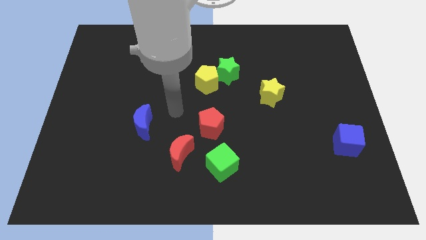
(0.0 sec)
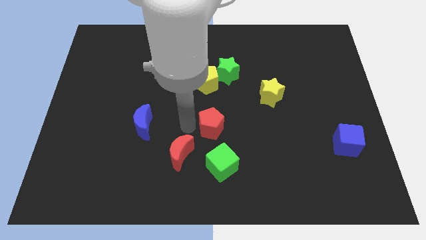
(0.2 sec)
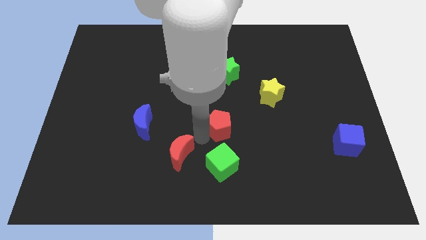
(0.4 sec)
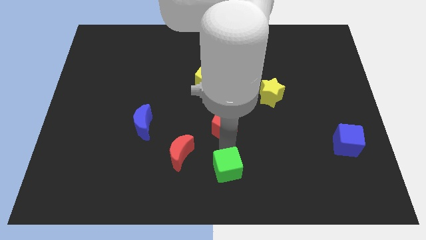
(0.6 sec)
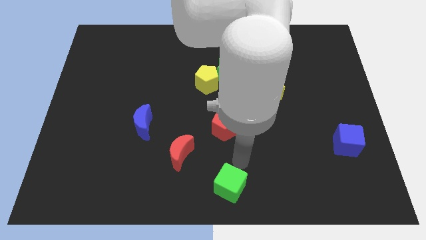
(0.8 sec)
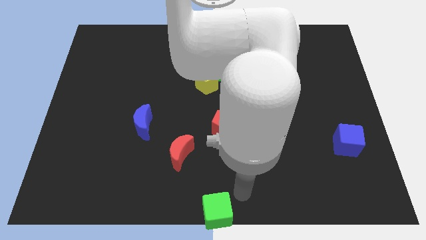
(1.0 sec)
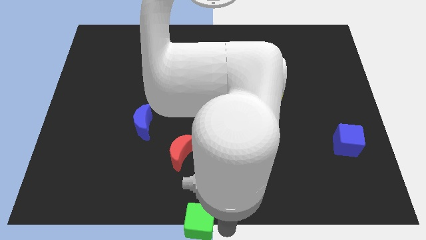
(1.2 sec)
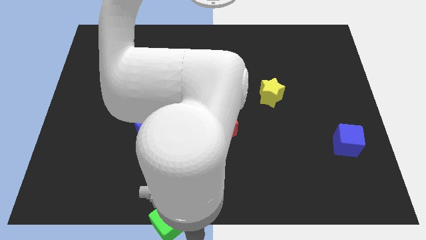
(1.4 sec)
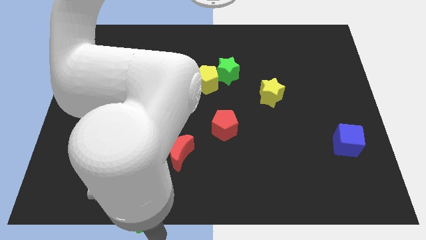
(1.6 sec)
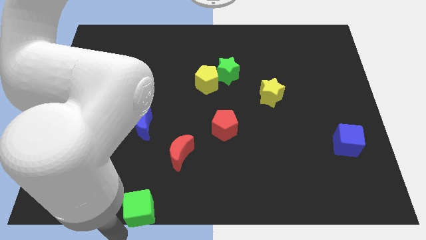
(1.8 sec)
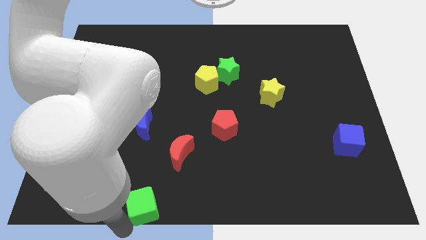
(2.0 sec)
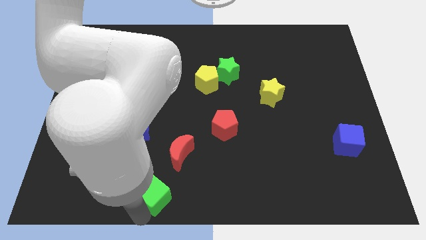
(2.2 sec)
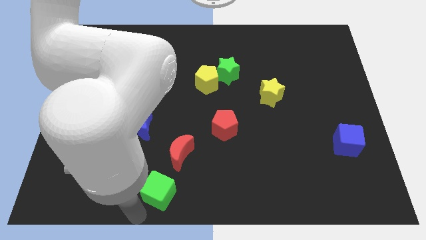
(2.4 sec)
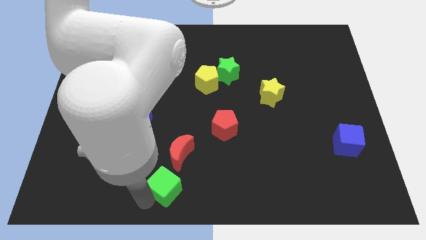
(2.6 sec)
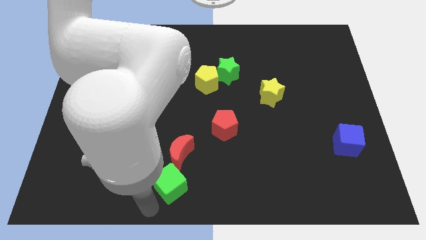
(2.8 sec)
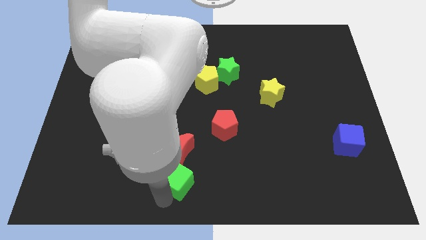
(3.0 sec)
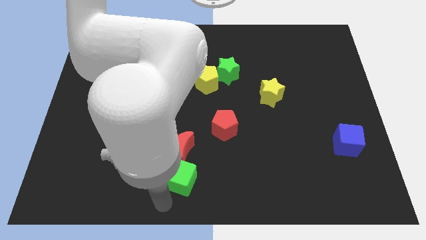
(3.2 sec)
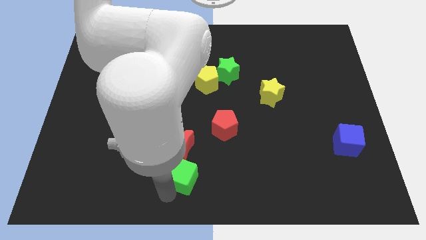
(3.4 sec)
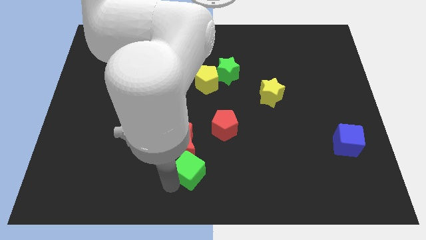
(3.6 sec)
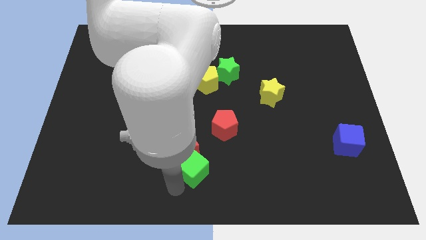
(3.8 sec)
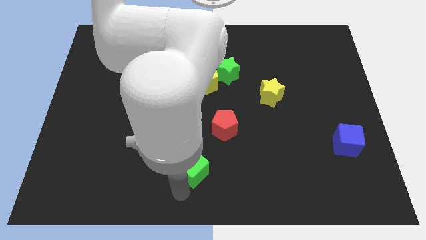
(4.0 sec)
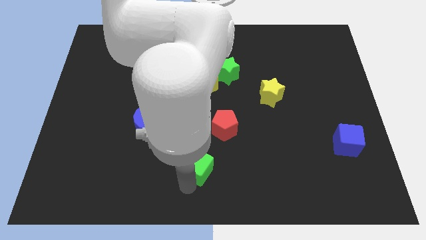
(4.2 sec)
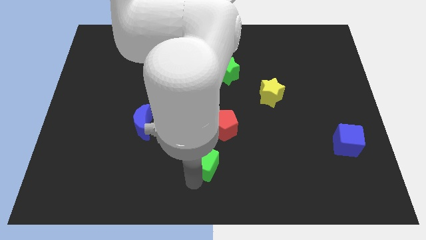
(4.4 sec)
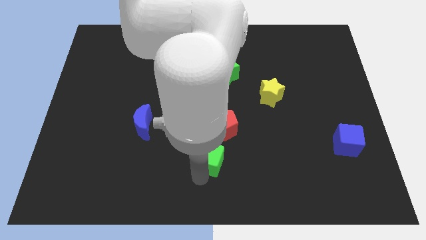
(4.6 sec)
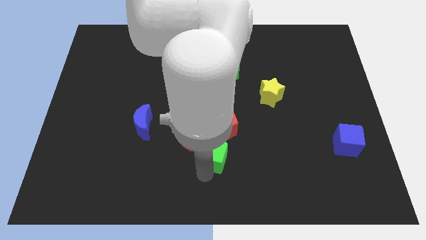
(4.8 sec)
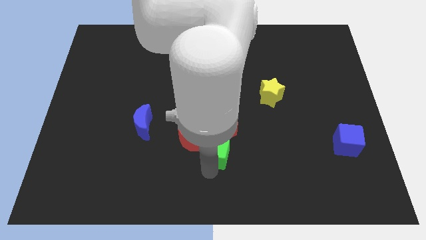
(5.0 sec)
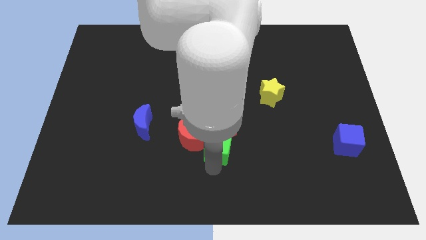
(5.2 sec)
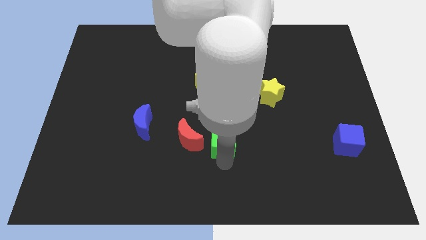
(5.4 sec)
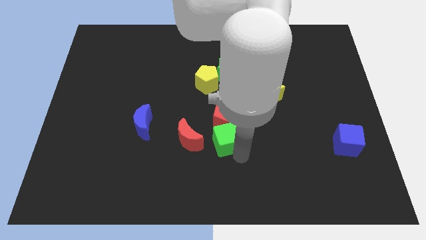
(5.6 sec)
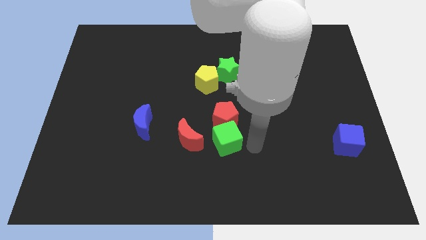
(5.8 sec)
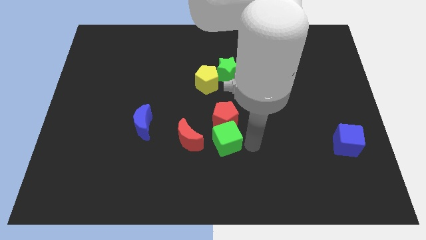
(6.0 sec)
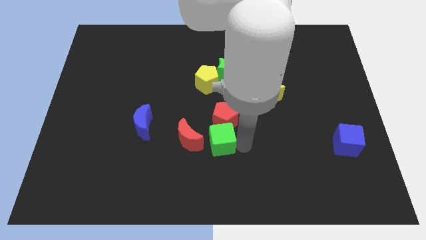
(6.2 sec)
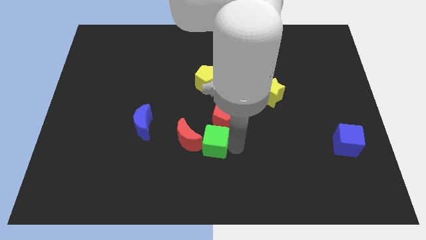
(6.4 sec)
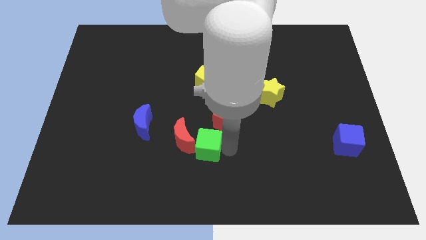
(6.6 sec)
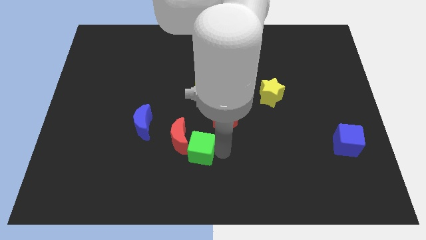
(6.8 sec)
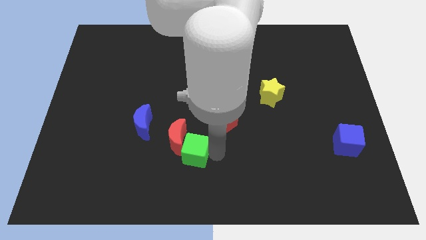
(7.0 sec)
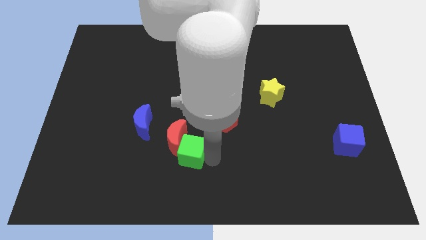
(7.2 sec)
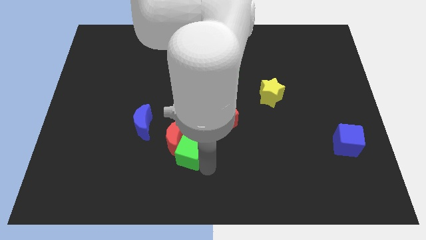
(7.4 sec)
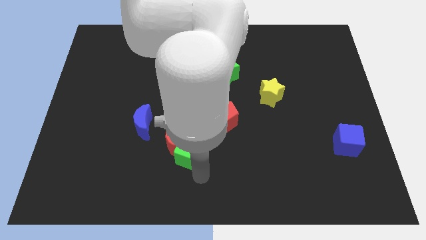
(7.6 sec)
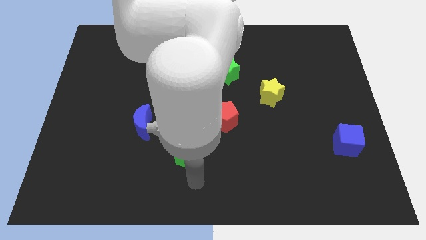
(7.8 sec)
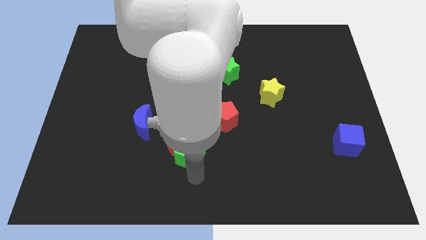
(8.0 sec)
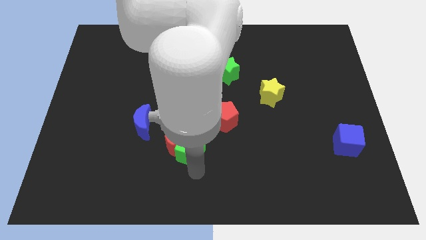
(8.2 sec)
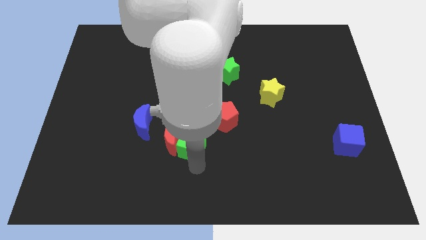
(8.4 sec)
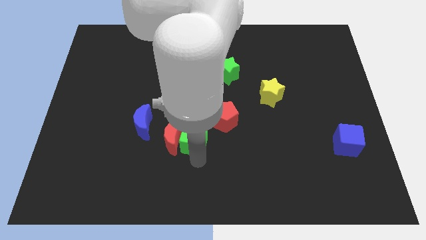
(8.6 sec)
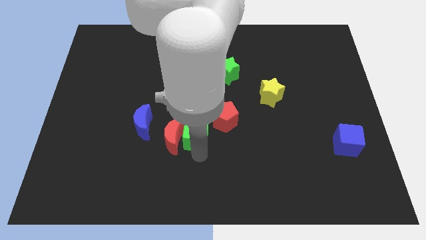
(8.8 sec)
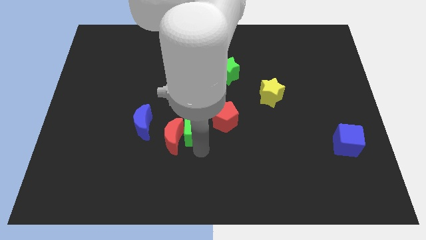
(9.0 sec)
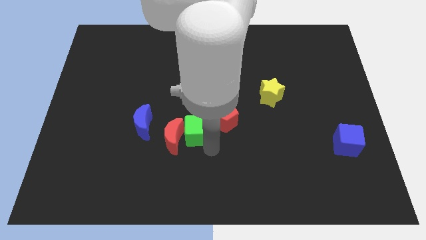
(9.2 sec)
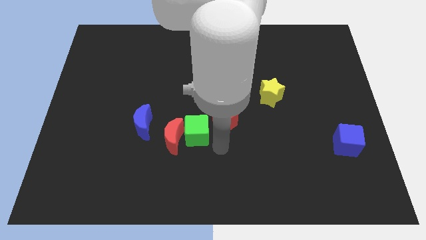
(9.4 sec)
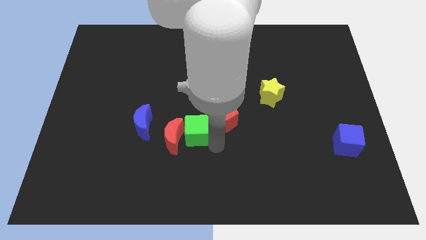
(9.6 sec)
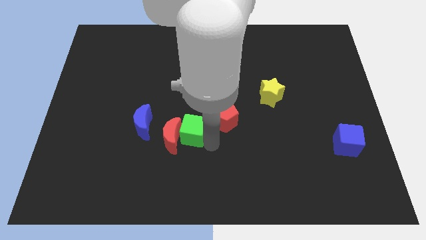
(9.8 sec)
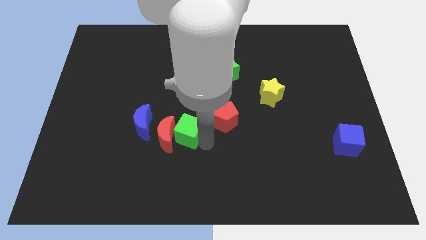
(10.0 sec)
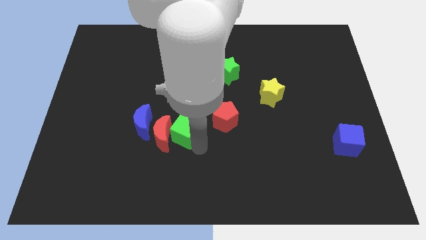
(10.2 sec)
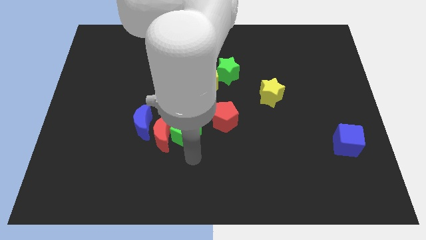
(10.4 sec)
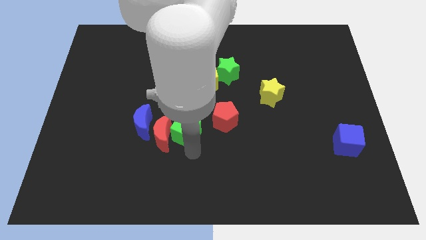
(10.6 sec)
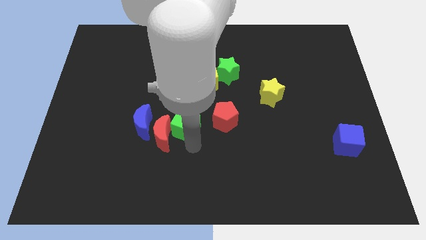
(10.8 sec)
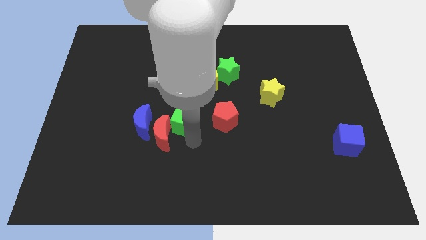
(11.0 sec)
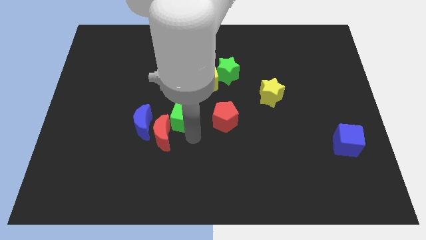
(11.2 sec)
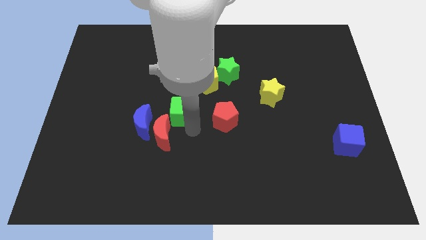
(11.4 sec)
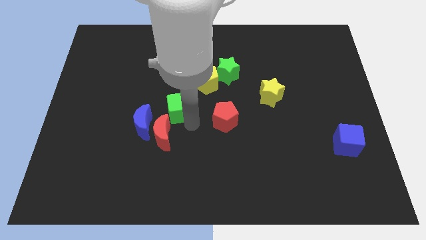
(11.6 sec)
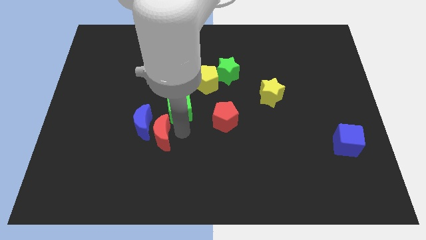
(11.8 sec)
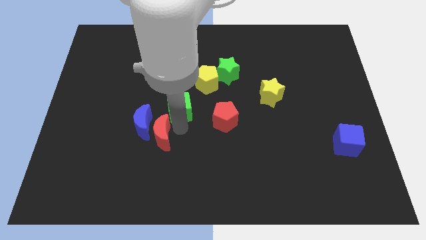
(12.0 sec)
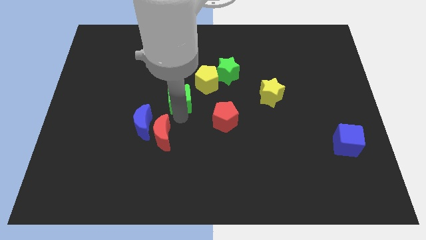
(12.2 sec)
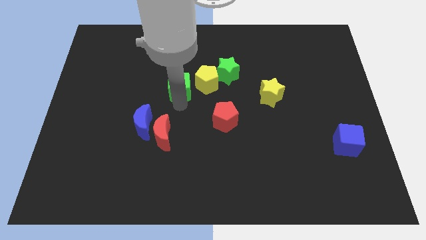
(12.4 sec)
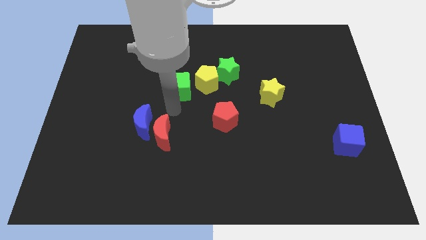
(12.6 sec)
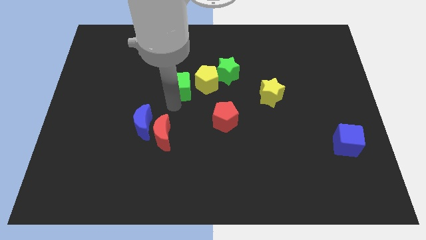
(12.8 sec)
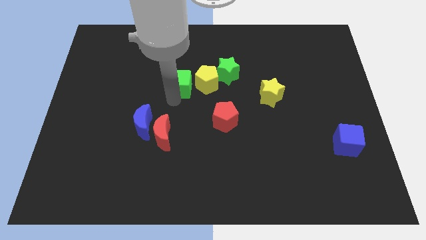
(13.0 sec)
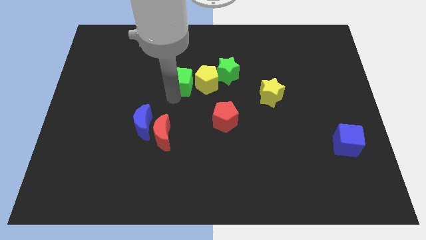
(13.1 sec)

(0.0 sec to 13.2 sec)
put the green cube to the top left of the yellow pentagon

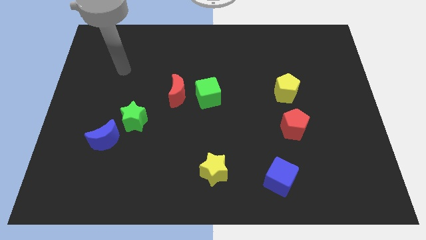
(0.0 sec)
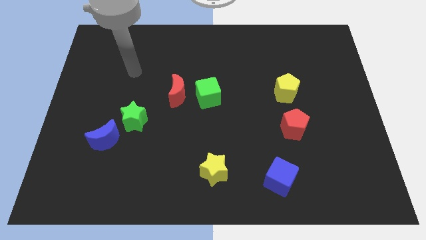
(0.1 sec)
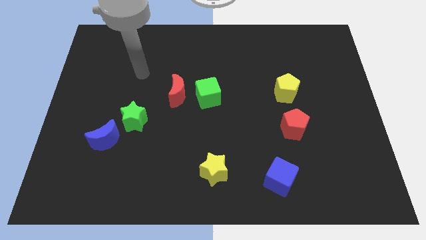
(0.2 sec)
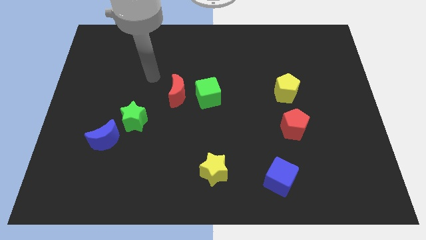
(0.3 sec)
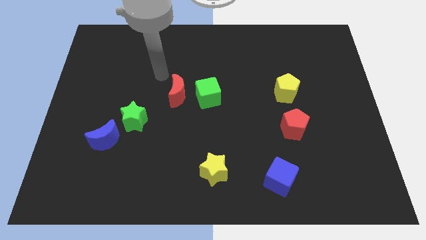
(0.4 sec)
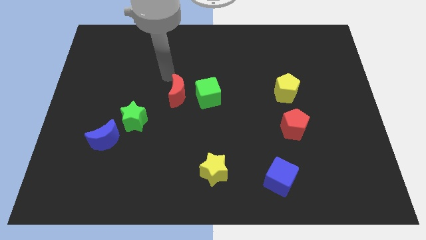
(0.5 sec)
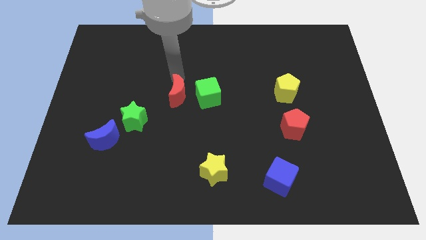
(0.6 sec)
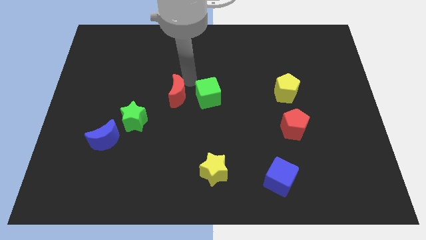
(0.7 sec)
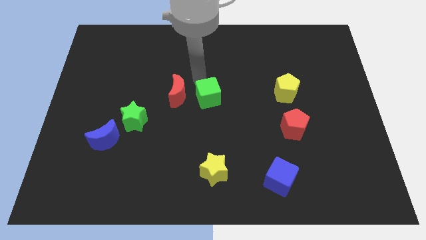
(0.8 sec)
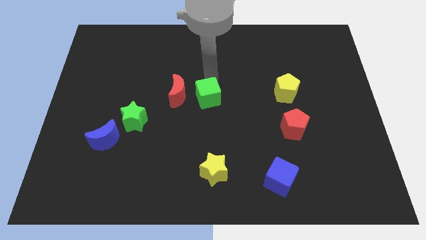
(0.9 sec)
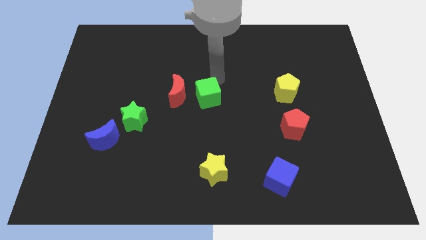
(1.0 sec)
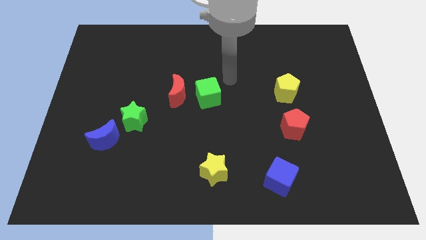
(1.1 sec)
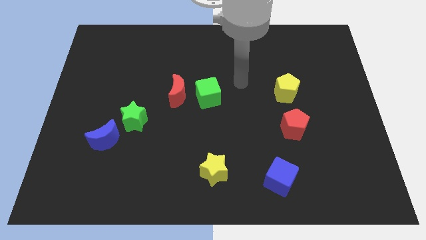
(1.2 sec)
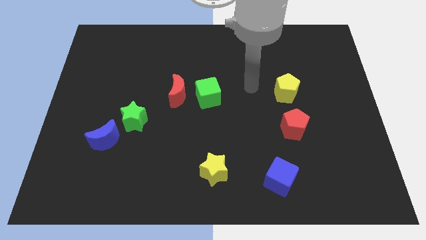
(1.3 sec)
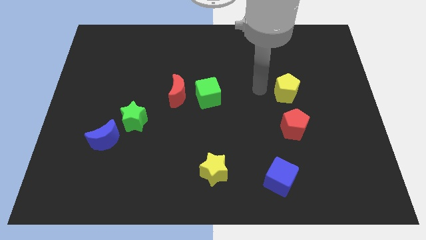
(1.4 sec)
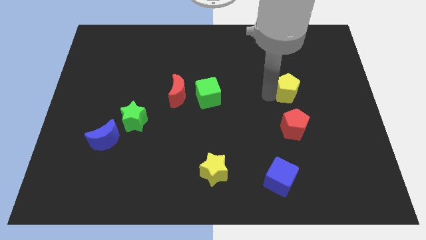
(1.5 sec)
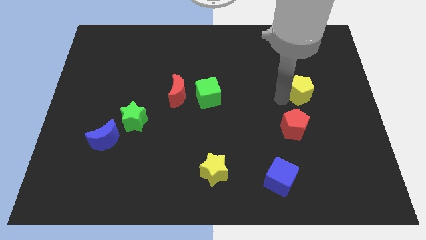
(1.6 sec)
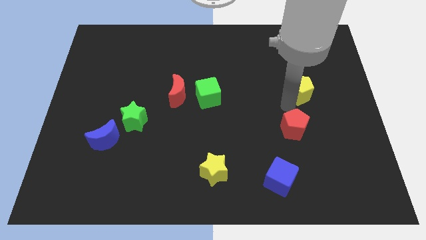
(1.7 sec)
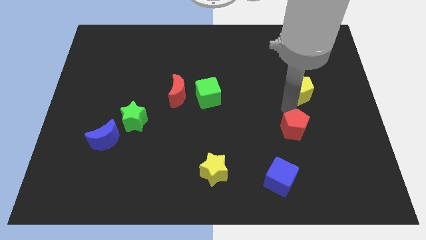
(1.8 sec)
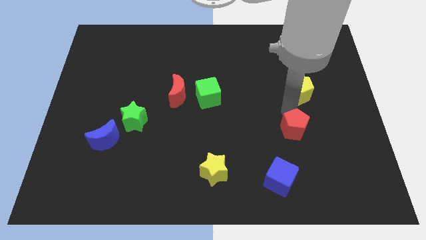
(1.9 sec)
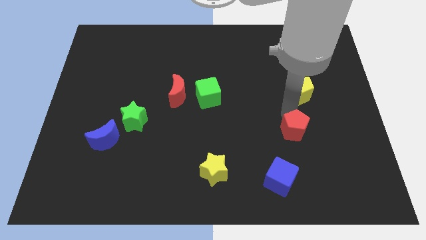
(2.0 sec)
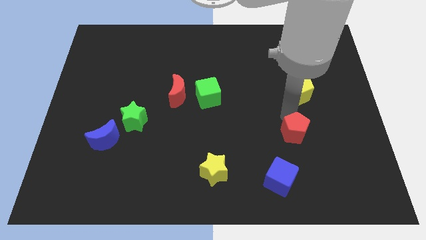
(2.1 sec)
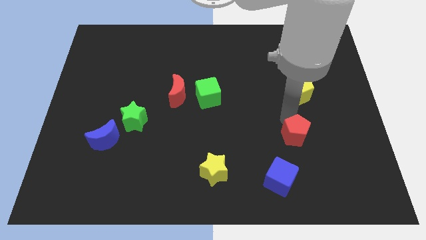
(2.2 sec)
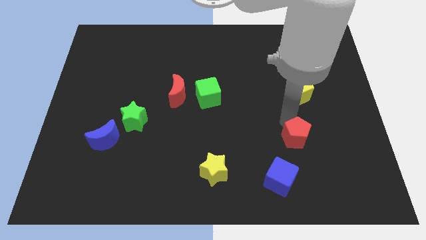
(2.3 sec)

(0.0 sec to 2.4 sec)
move the red pentagon to the top right side of the blue cube
